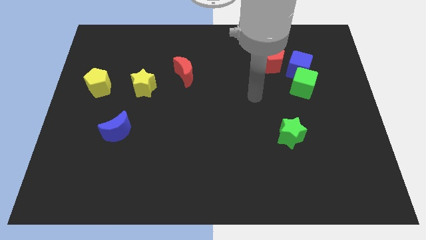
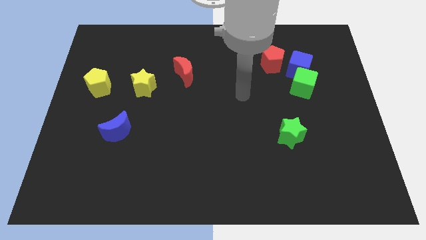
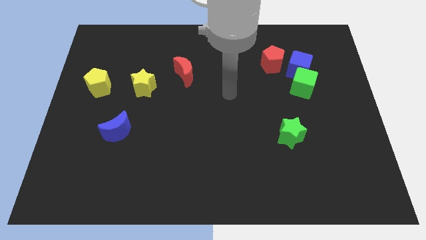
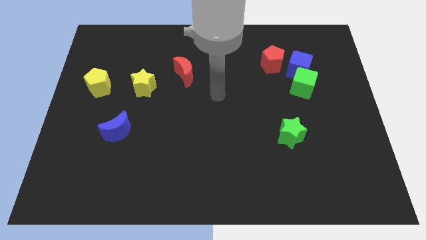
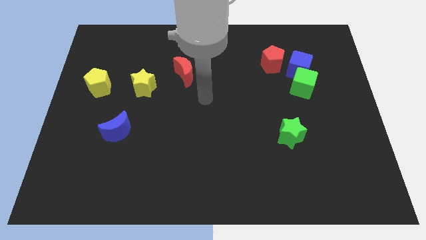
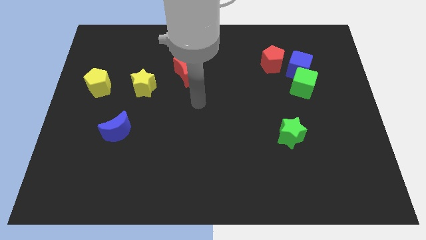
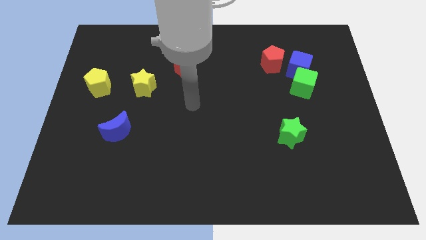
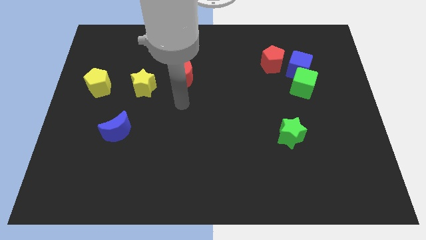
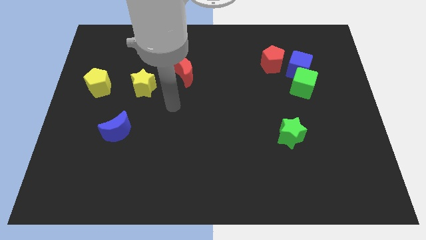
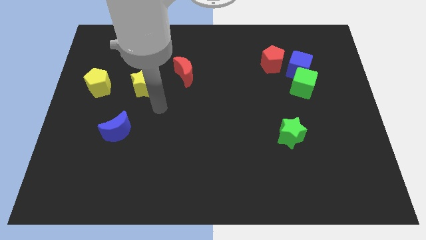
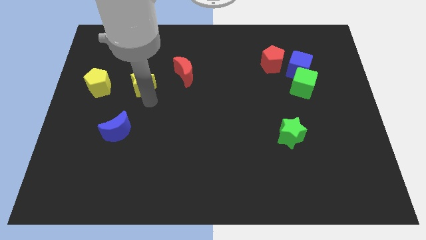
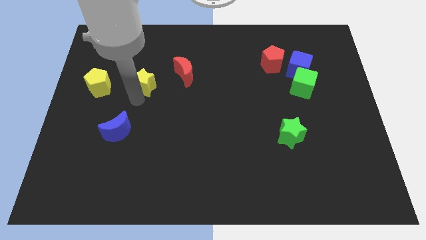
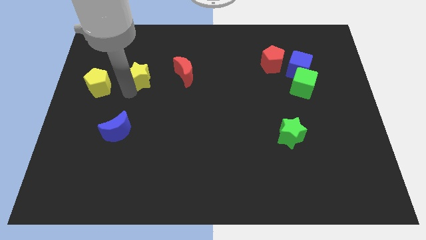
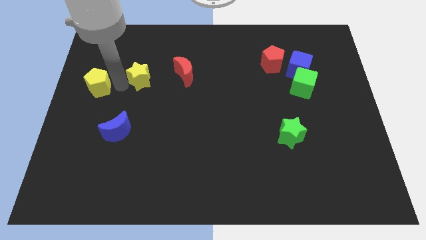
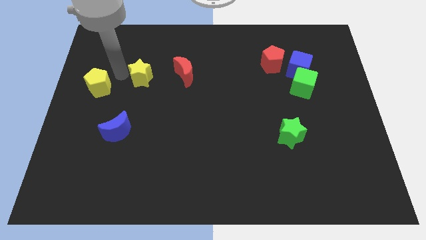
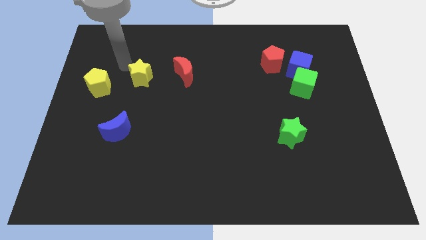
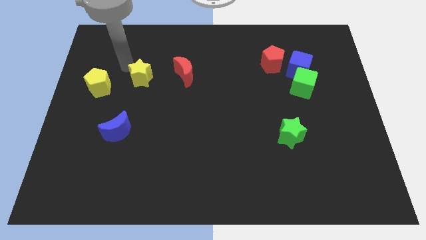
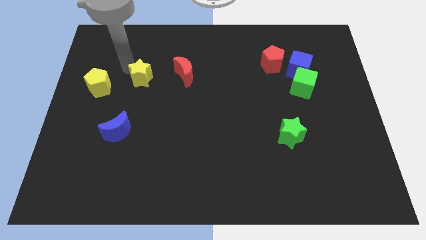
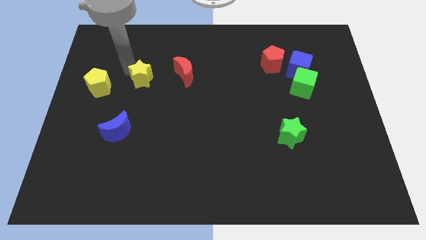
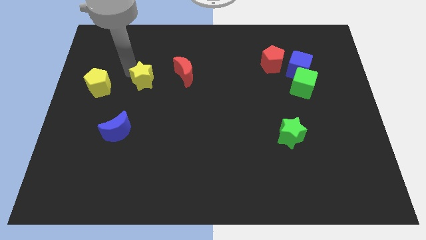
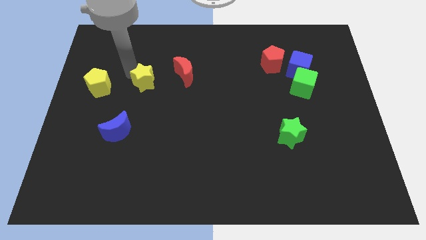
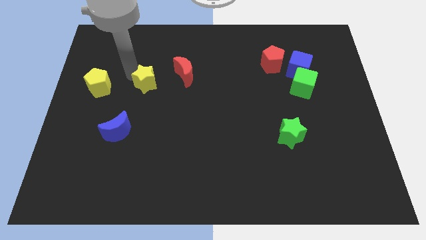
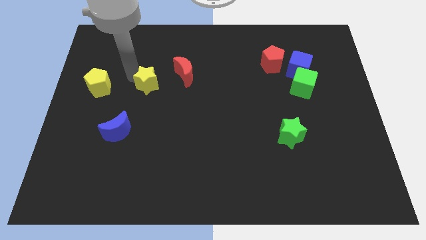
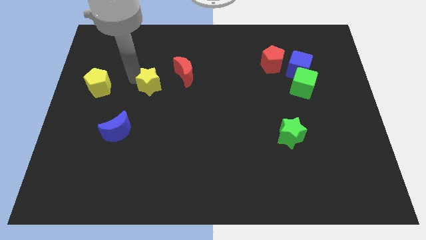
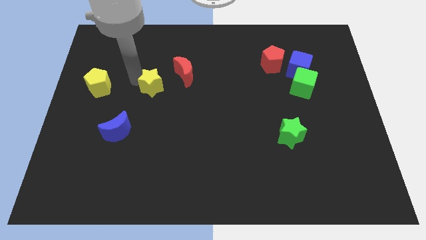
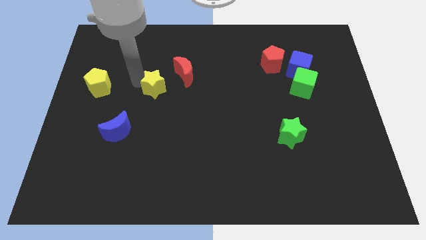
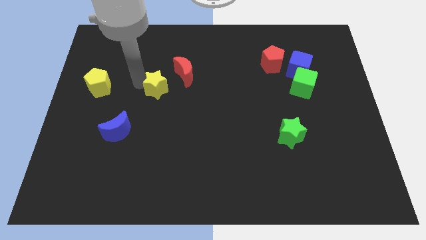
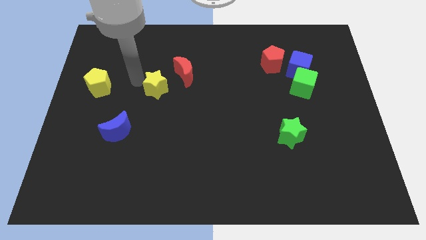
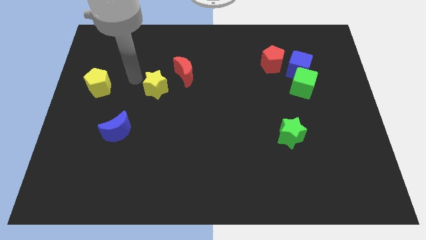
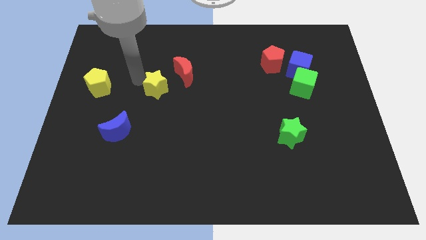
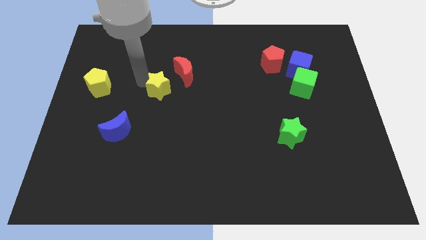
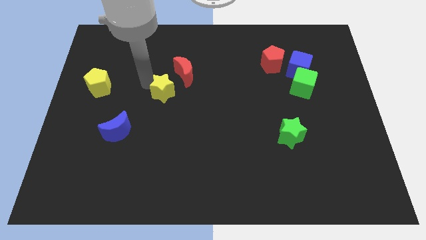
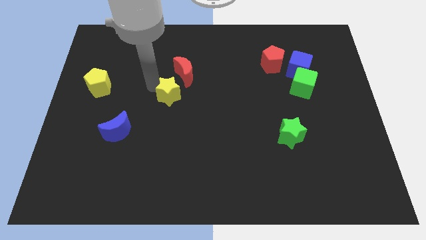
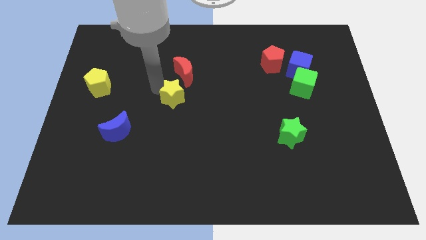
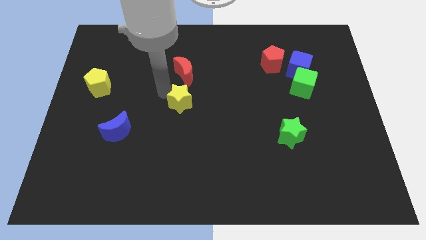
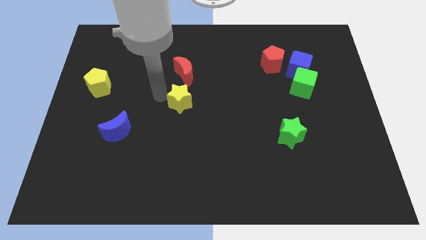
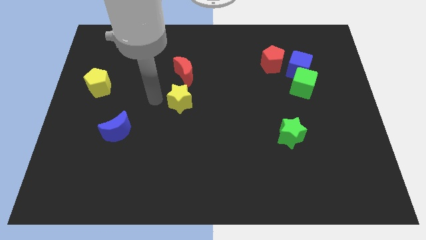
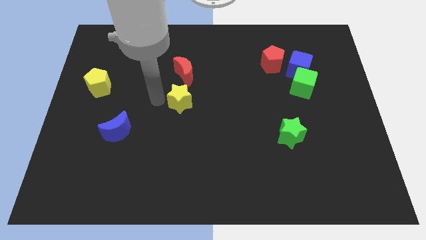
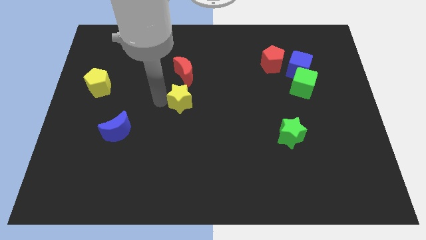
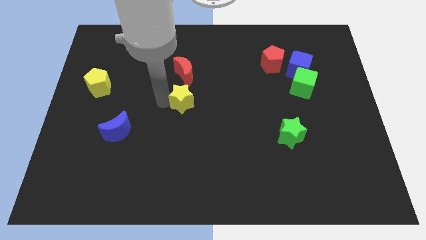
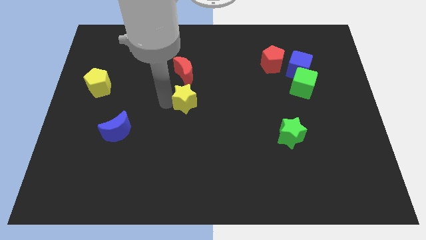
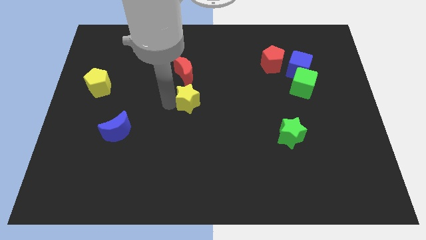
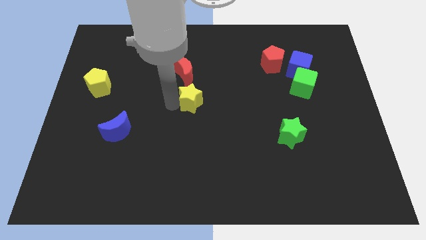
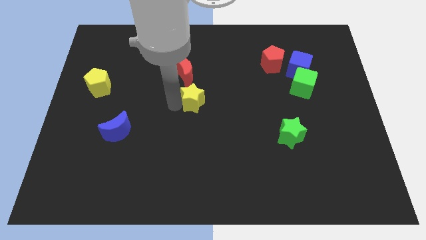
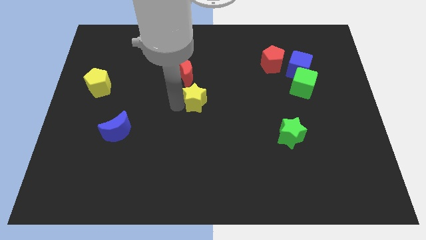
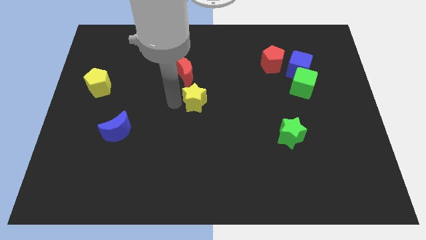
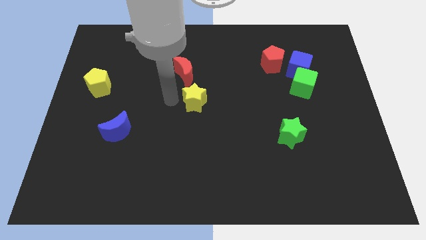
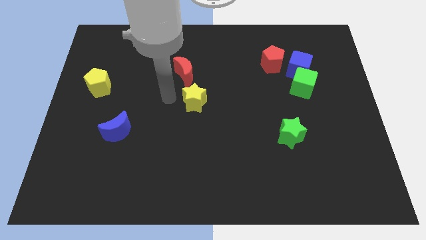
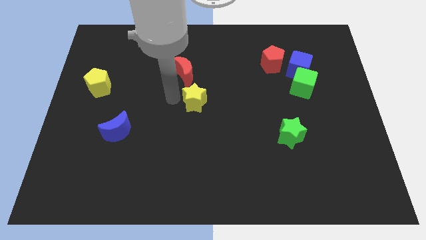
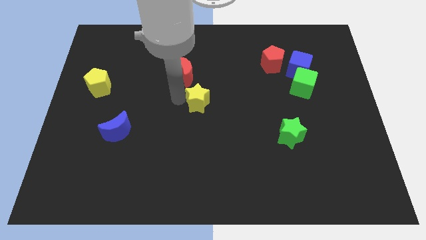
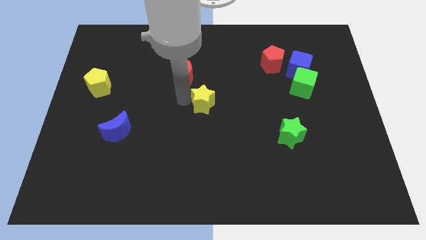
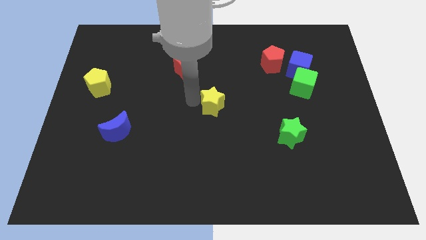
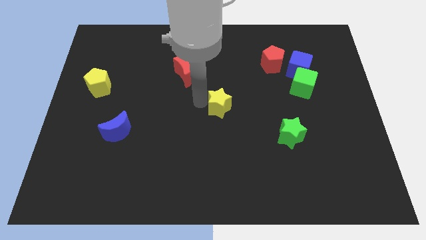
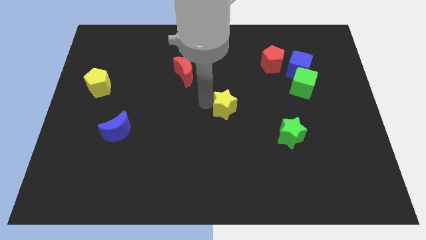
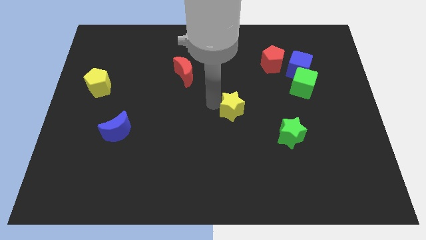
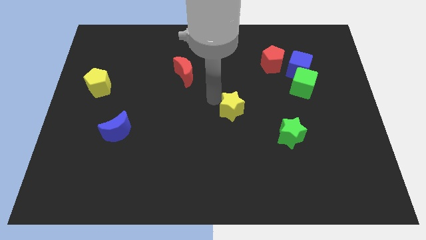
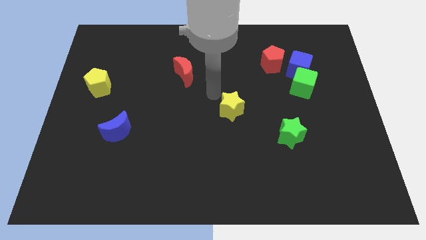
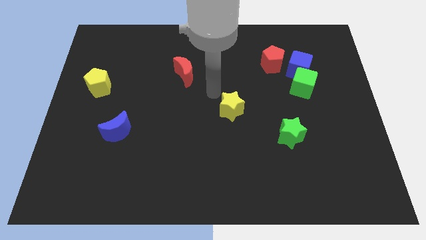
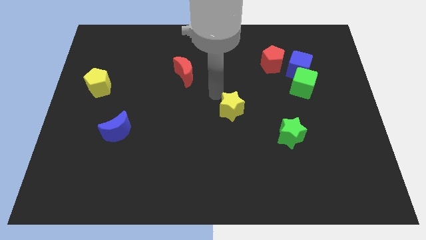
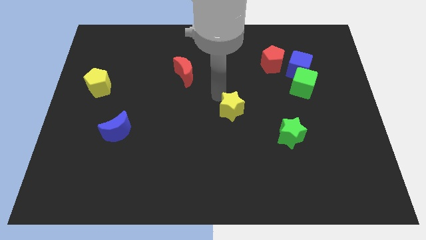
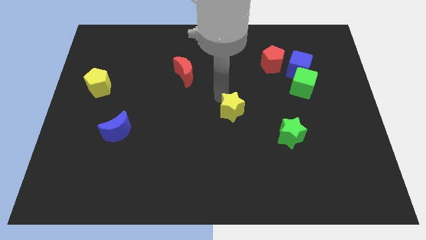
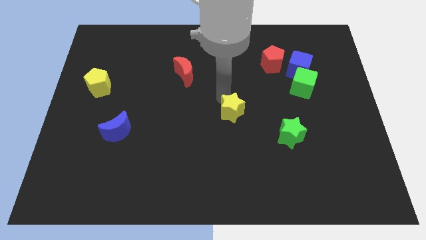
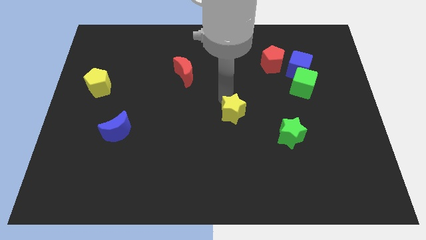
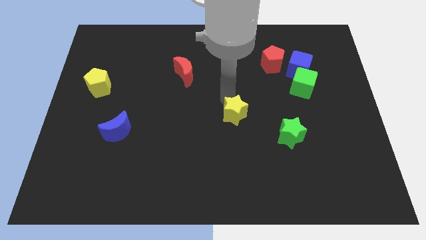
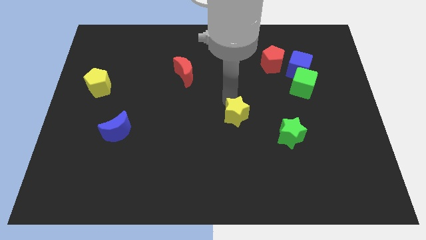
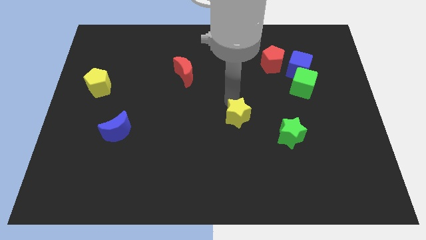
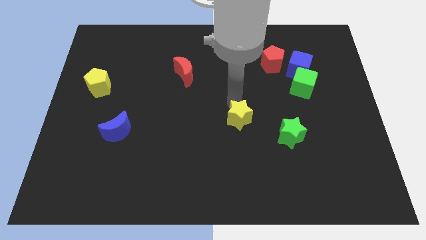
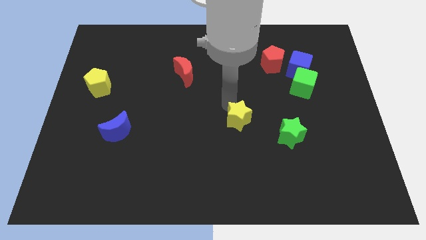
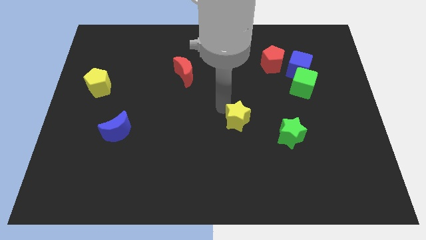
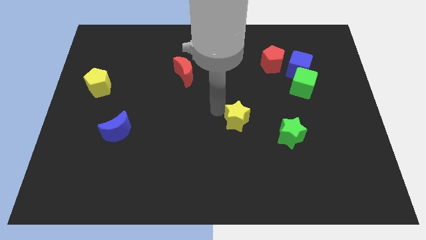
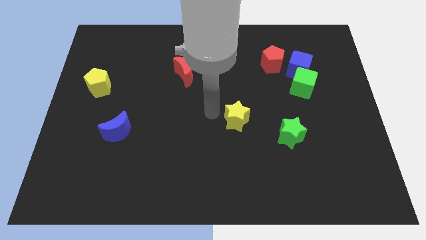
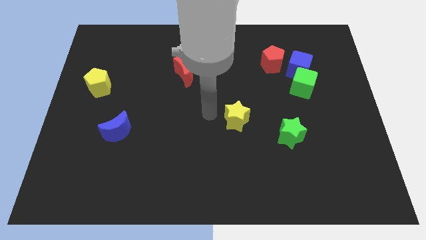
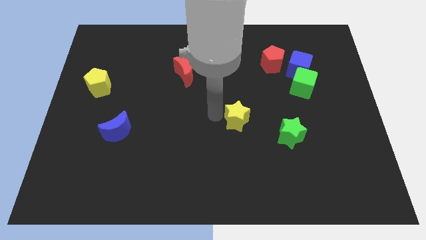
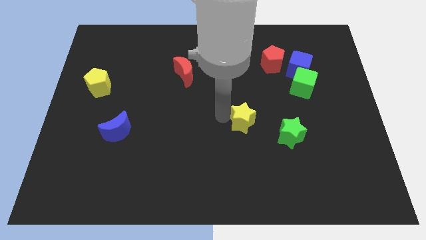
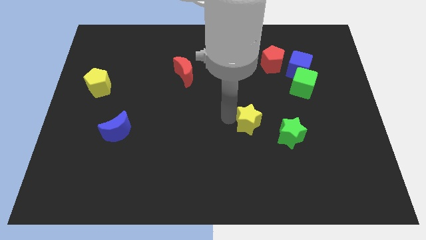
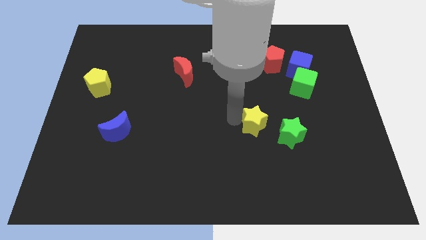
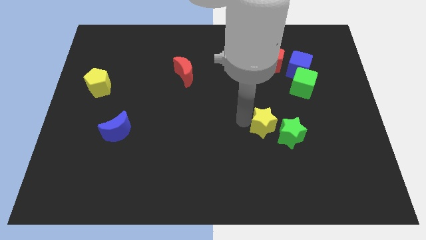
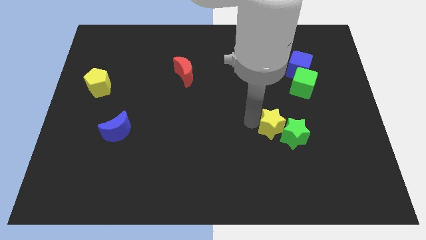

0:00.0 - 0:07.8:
push the yellow star to the green star
